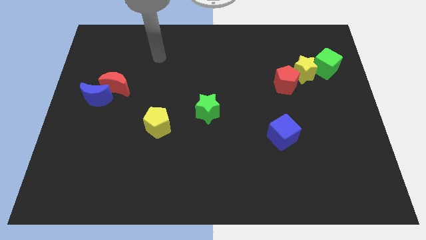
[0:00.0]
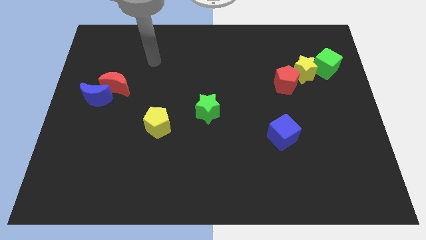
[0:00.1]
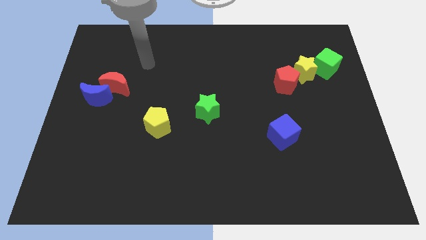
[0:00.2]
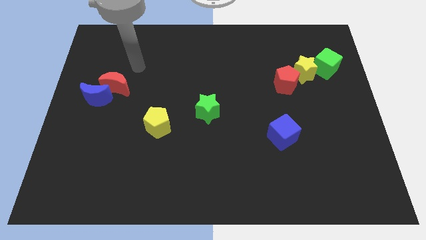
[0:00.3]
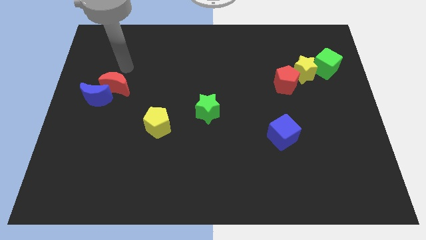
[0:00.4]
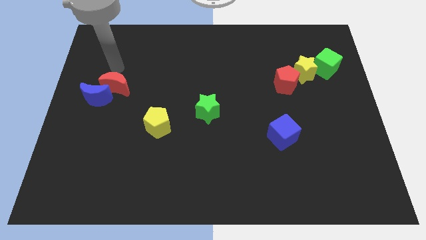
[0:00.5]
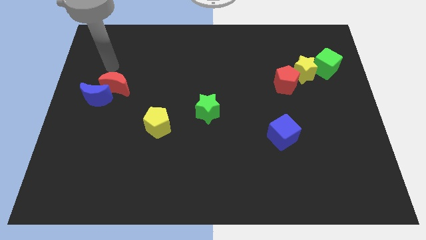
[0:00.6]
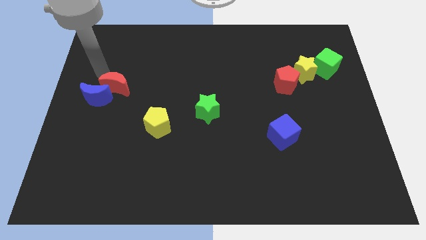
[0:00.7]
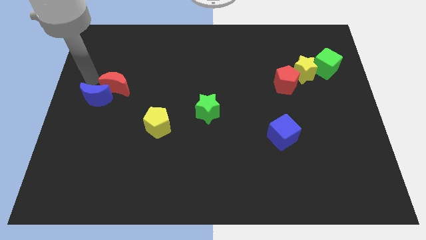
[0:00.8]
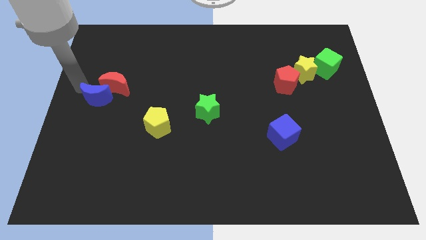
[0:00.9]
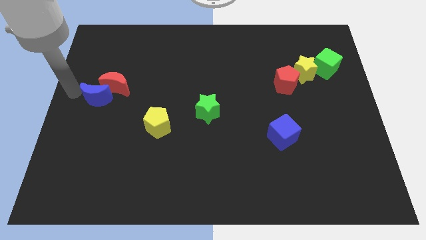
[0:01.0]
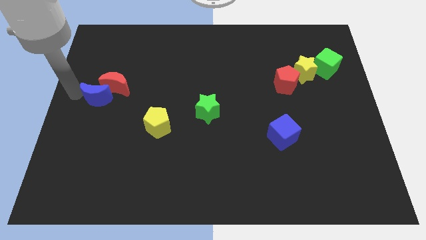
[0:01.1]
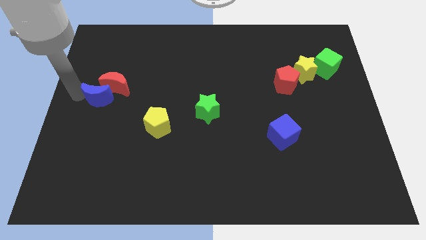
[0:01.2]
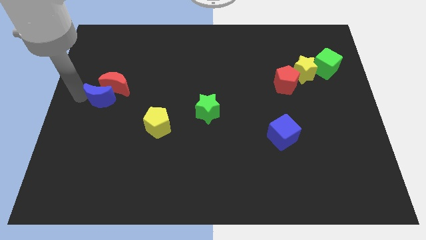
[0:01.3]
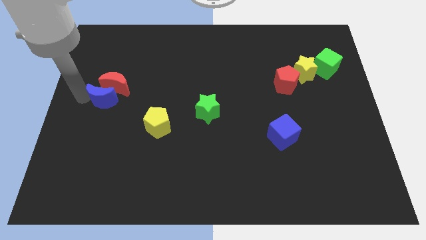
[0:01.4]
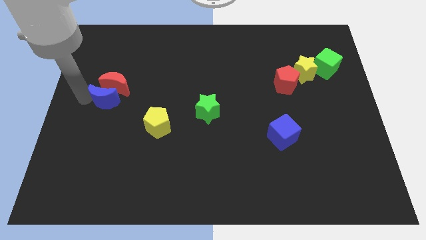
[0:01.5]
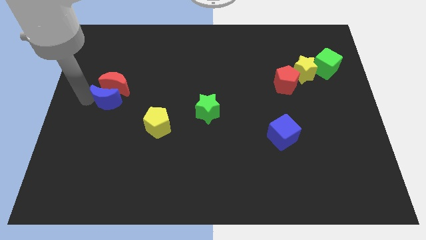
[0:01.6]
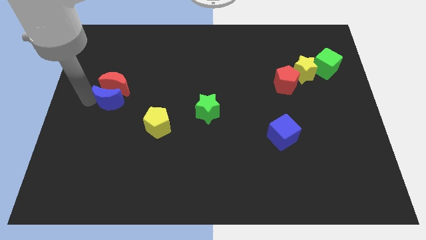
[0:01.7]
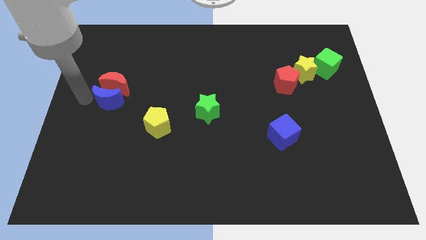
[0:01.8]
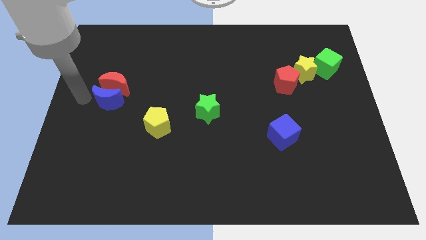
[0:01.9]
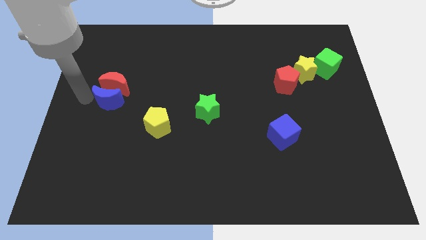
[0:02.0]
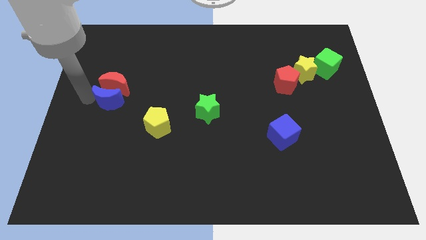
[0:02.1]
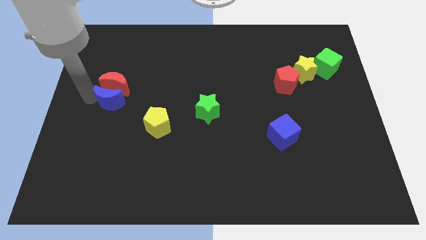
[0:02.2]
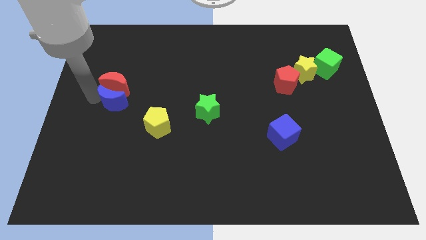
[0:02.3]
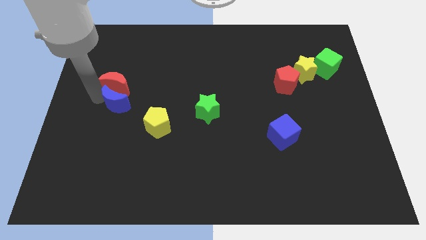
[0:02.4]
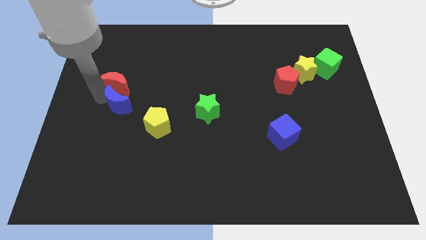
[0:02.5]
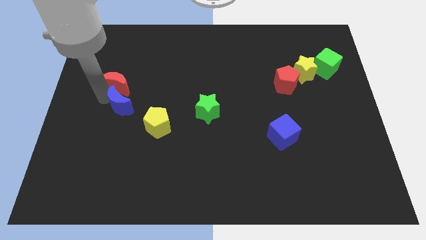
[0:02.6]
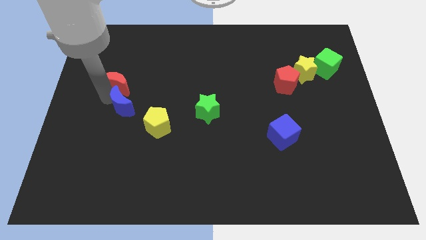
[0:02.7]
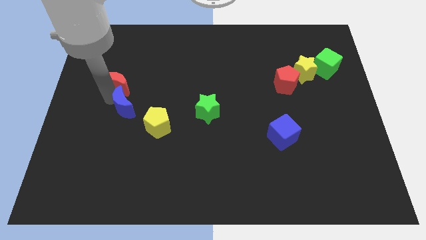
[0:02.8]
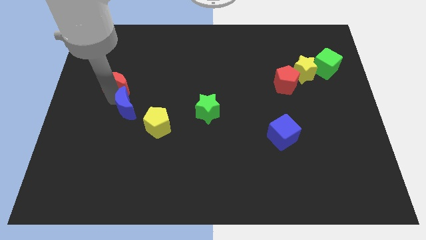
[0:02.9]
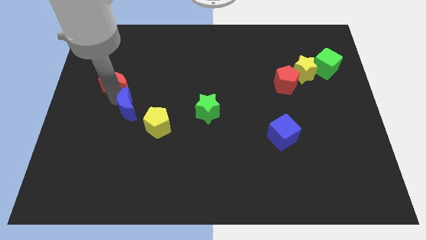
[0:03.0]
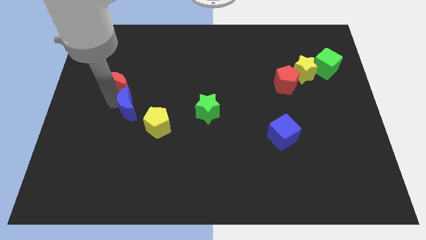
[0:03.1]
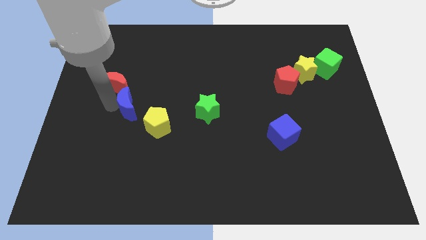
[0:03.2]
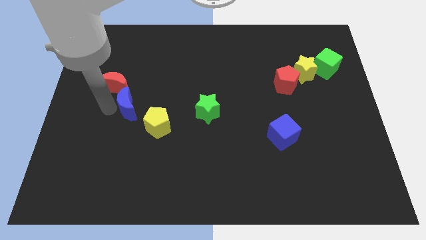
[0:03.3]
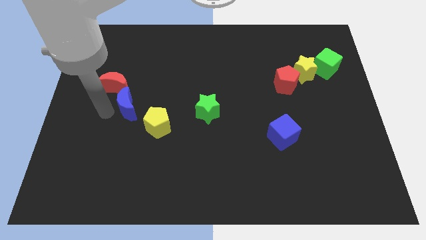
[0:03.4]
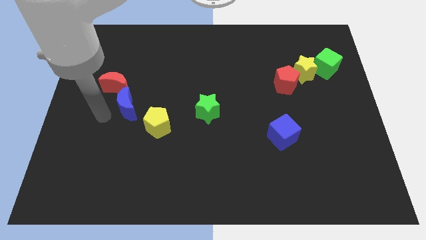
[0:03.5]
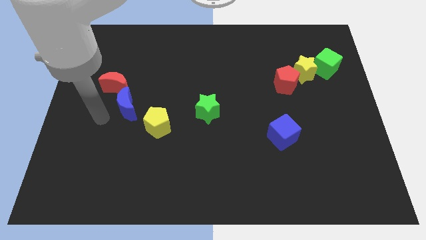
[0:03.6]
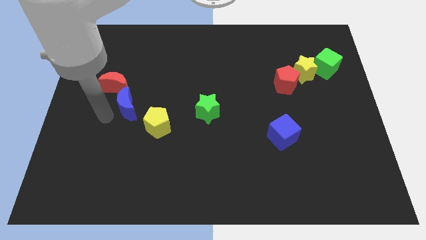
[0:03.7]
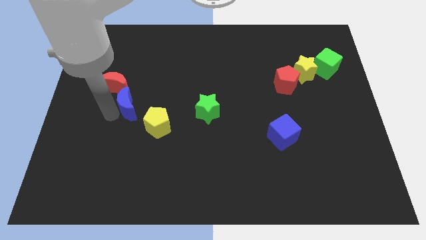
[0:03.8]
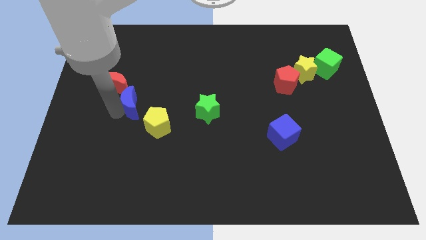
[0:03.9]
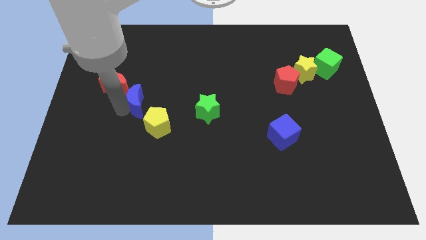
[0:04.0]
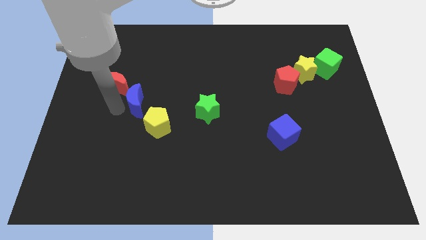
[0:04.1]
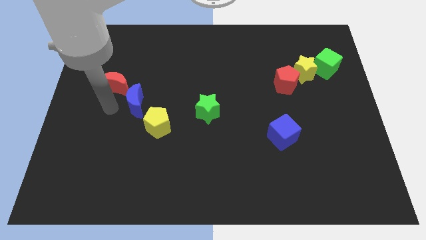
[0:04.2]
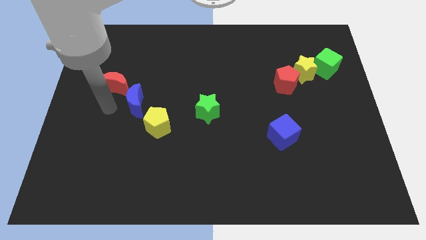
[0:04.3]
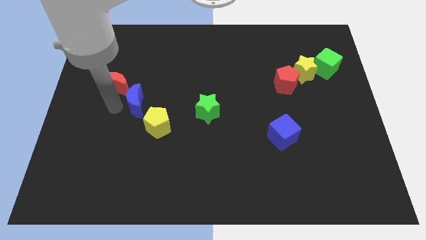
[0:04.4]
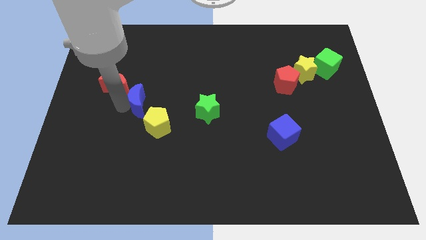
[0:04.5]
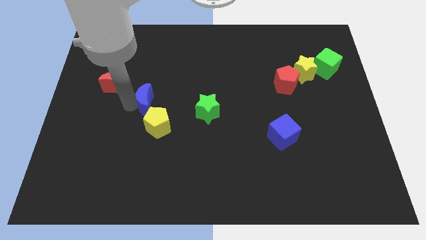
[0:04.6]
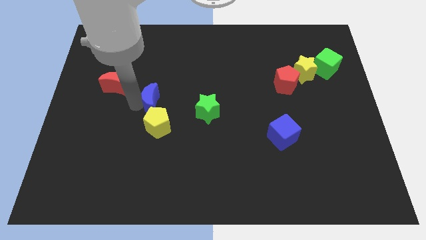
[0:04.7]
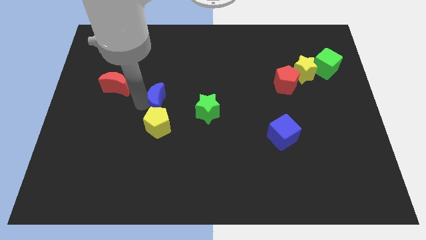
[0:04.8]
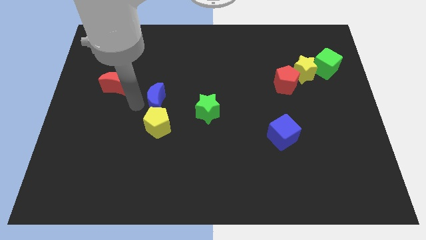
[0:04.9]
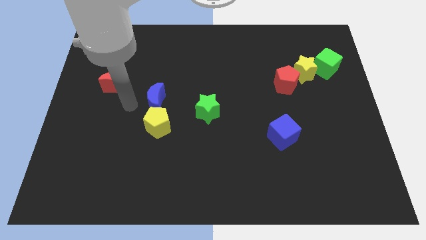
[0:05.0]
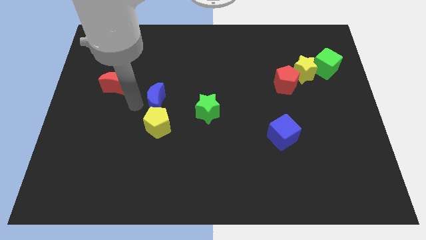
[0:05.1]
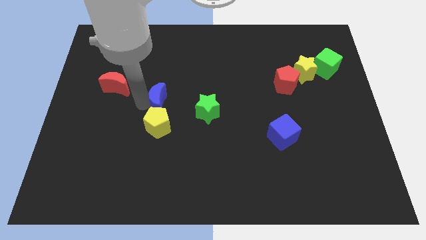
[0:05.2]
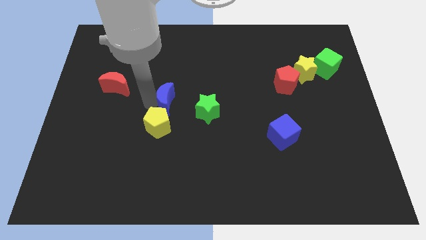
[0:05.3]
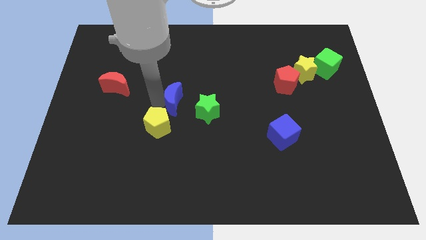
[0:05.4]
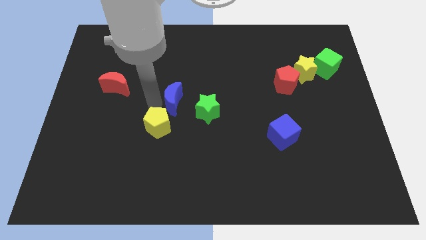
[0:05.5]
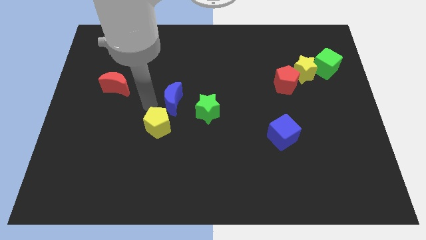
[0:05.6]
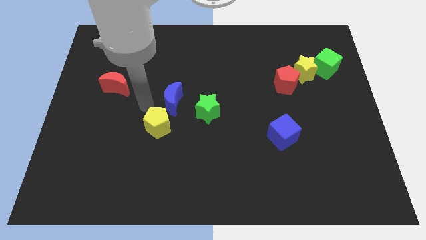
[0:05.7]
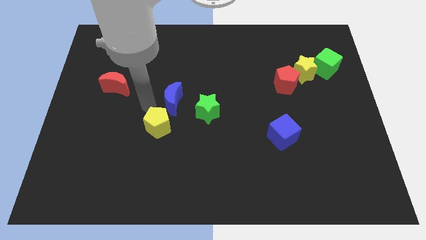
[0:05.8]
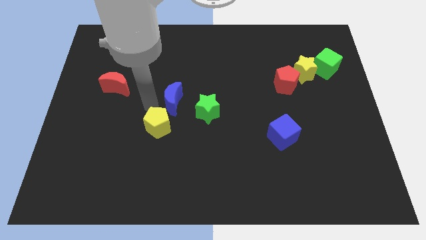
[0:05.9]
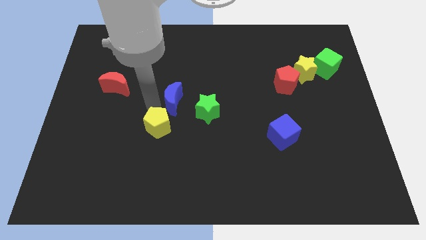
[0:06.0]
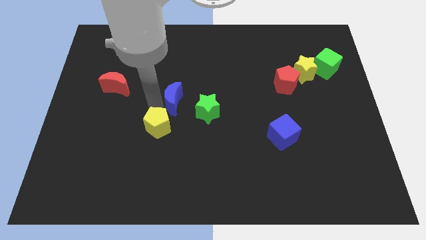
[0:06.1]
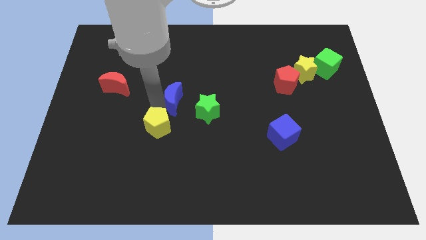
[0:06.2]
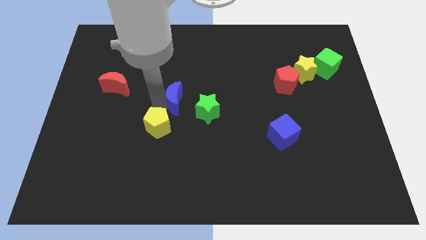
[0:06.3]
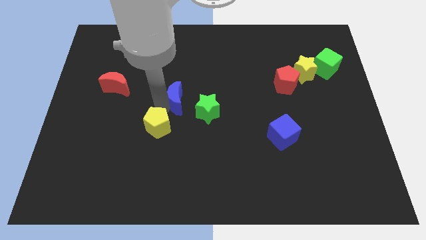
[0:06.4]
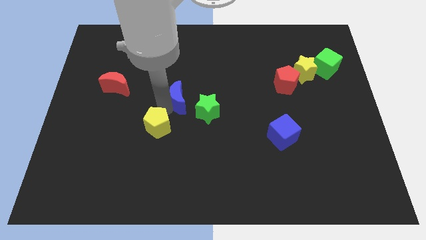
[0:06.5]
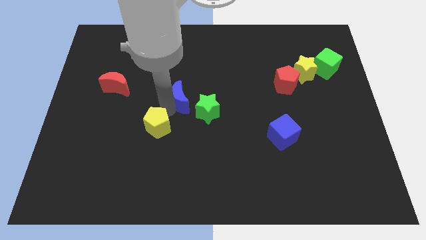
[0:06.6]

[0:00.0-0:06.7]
push the blue moon to the right

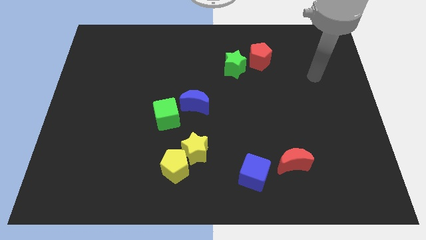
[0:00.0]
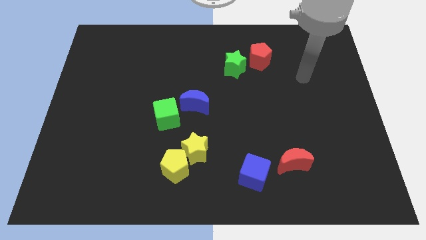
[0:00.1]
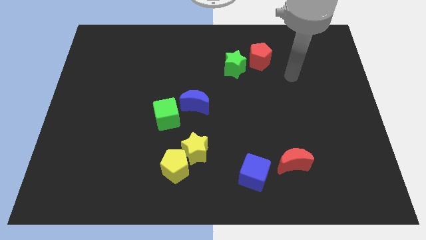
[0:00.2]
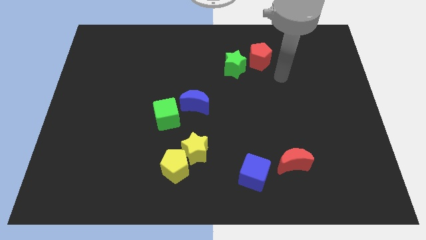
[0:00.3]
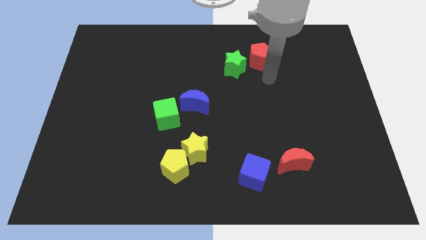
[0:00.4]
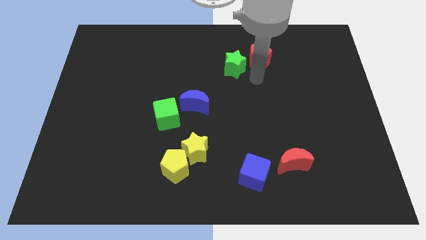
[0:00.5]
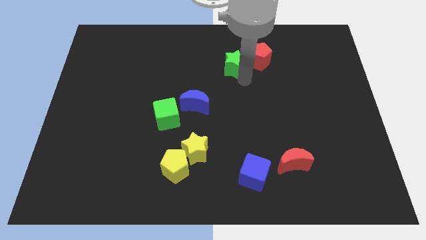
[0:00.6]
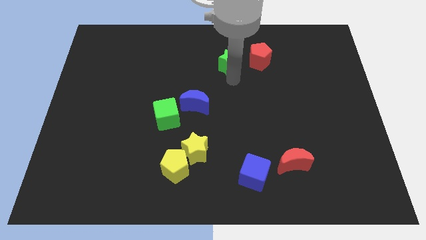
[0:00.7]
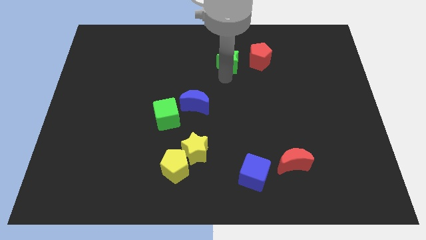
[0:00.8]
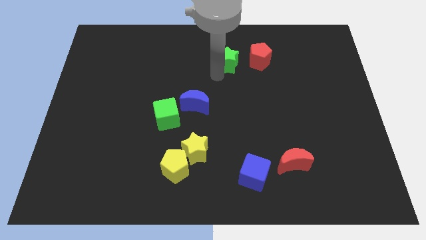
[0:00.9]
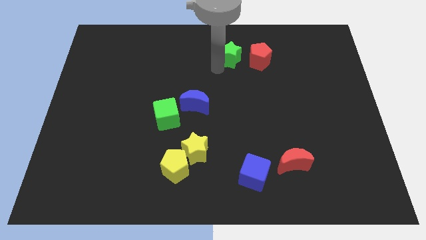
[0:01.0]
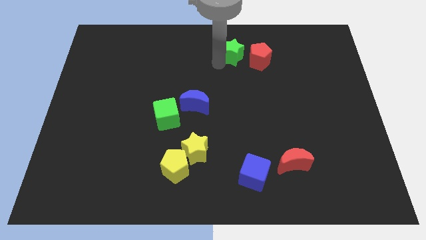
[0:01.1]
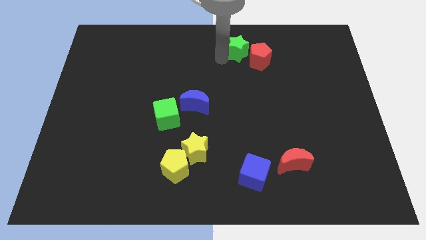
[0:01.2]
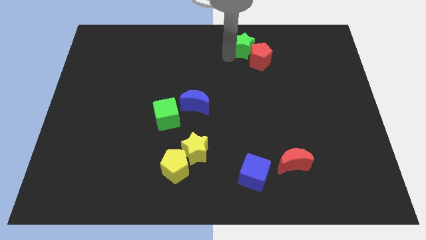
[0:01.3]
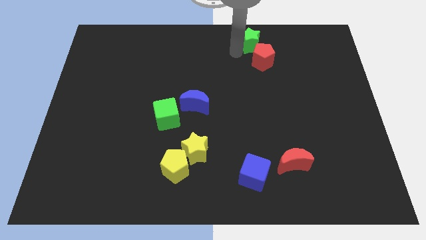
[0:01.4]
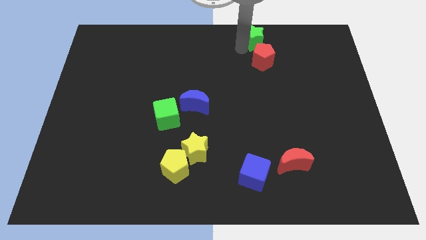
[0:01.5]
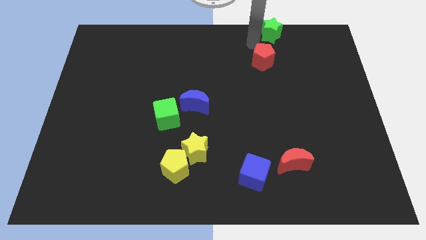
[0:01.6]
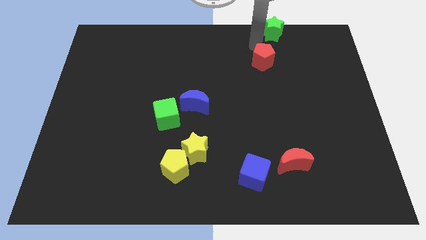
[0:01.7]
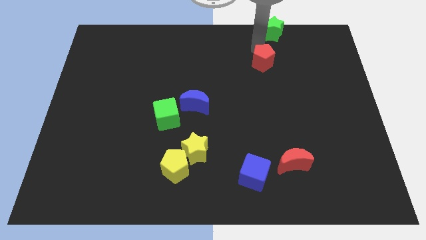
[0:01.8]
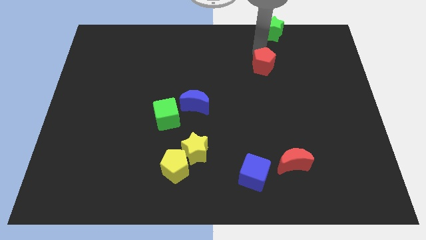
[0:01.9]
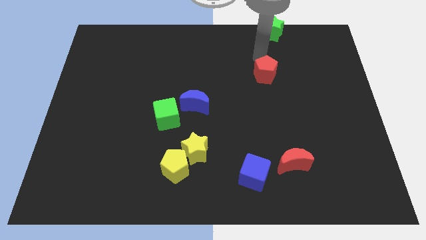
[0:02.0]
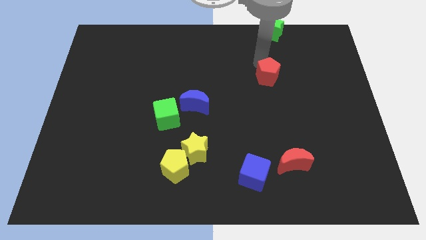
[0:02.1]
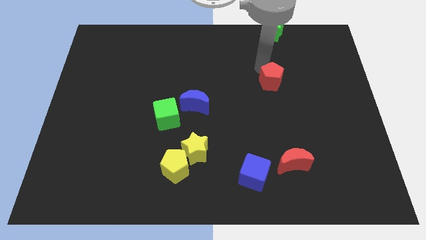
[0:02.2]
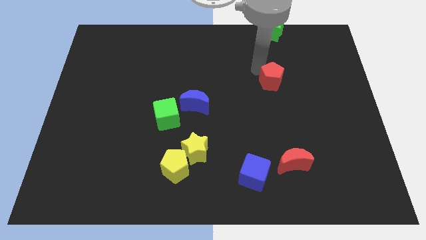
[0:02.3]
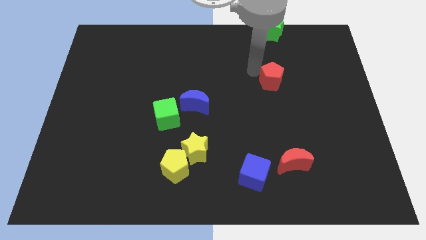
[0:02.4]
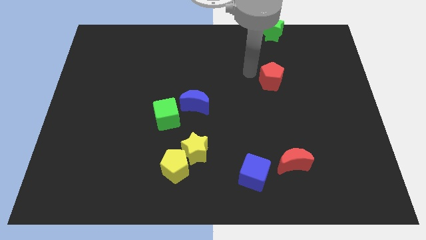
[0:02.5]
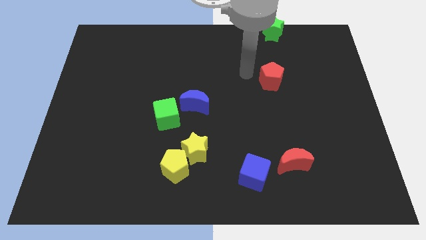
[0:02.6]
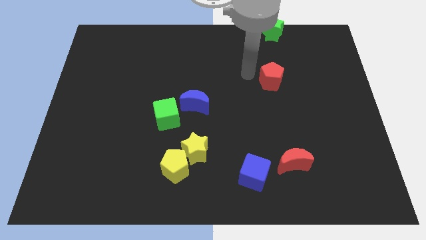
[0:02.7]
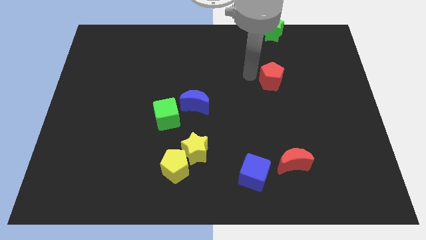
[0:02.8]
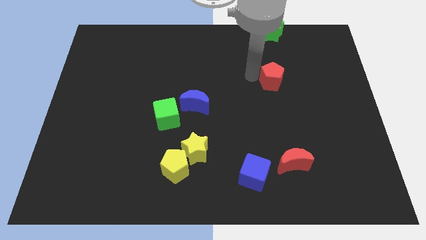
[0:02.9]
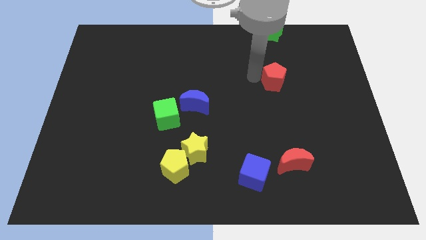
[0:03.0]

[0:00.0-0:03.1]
move the red pentagon slightly diagonally down and to the right
